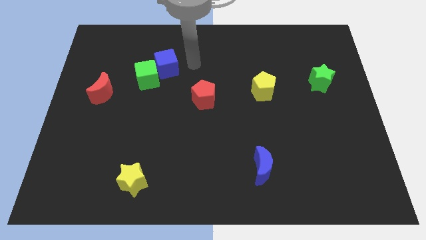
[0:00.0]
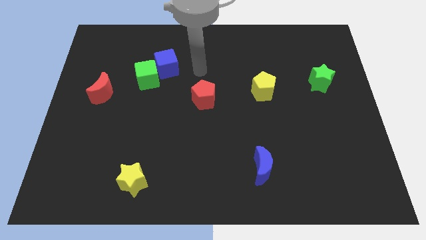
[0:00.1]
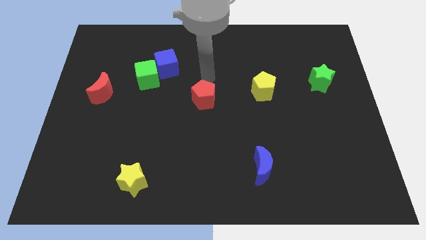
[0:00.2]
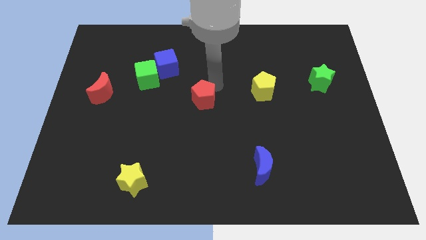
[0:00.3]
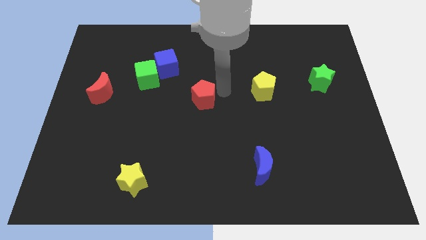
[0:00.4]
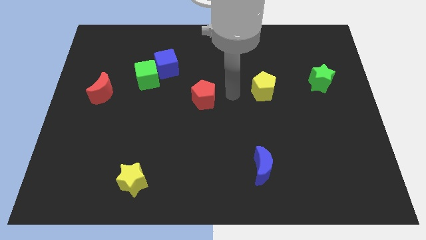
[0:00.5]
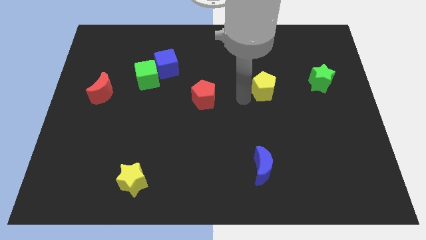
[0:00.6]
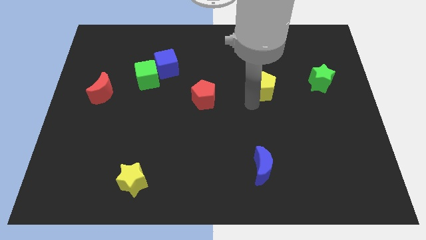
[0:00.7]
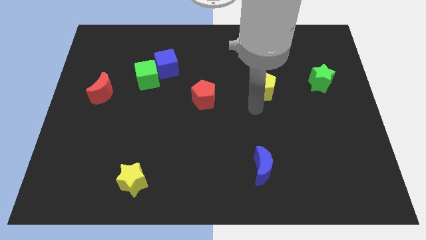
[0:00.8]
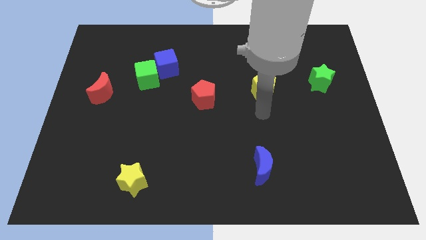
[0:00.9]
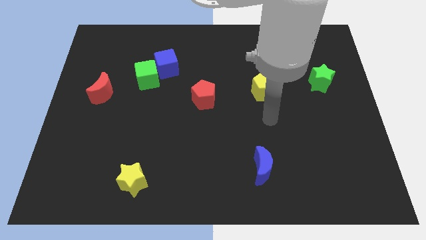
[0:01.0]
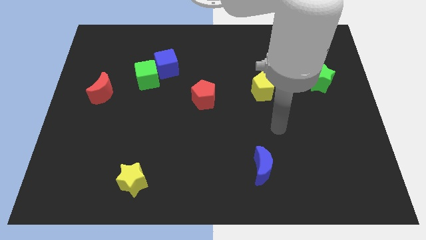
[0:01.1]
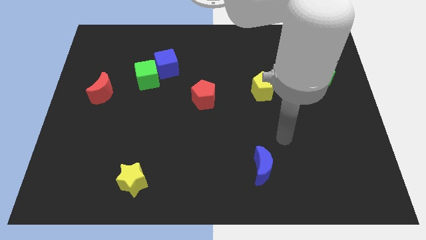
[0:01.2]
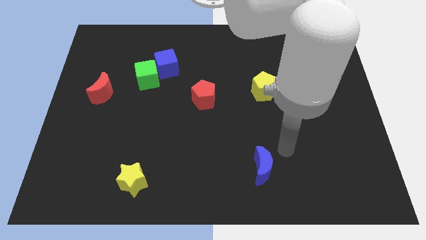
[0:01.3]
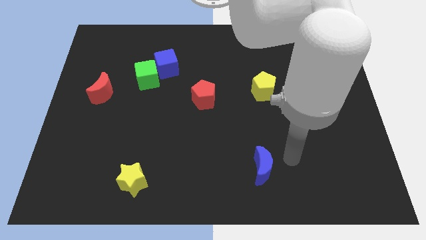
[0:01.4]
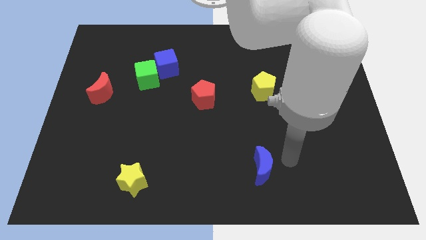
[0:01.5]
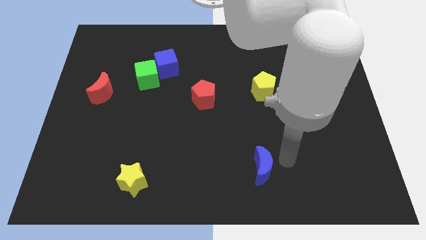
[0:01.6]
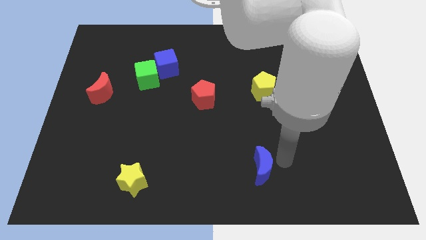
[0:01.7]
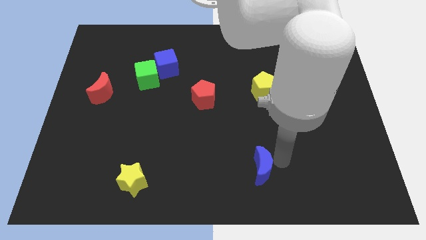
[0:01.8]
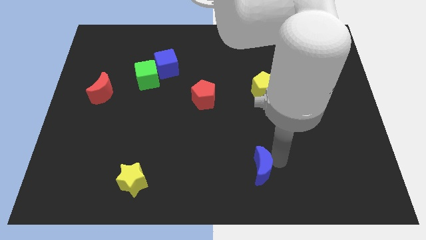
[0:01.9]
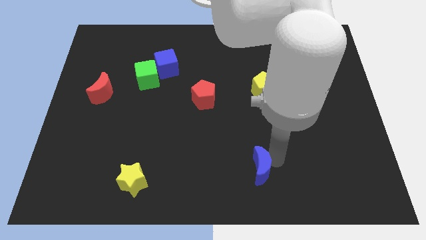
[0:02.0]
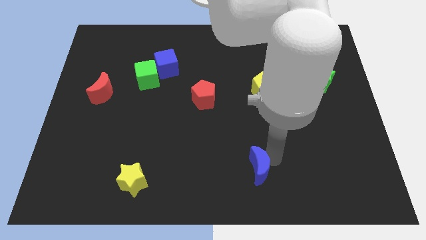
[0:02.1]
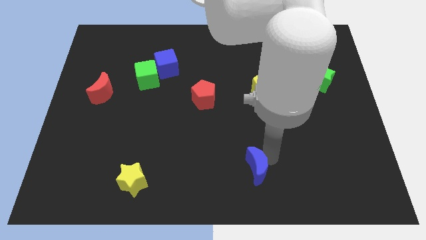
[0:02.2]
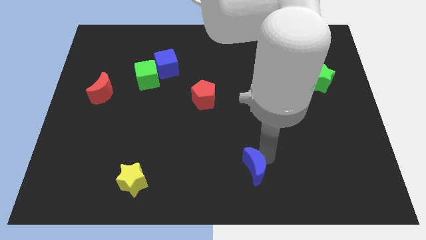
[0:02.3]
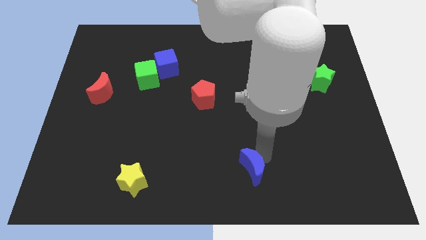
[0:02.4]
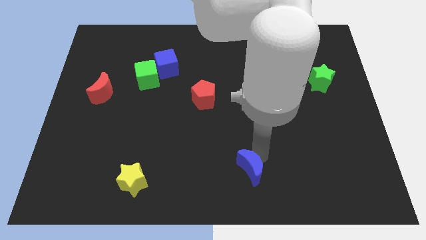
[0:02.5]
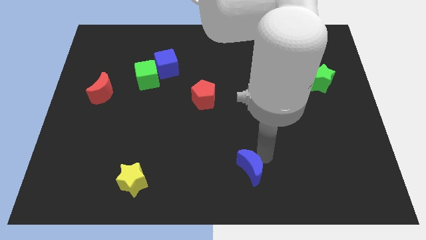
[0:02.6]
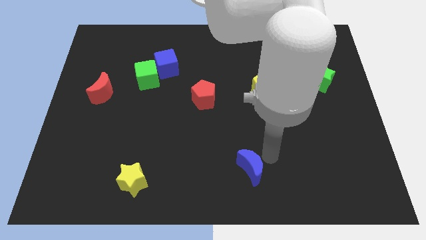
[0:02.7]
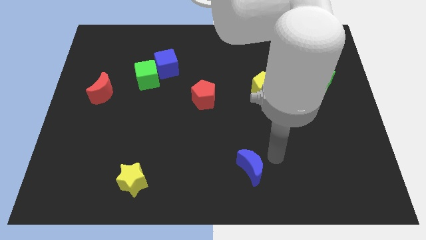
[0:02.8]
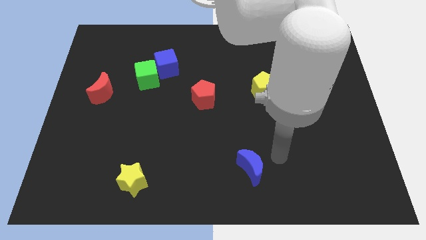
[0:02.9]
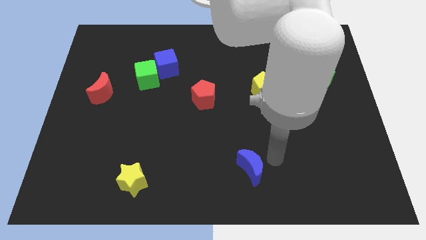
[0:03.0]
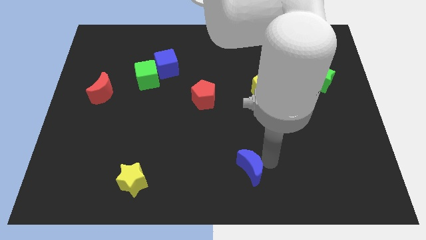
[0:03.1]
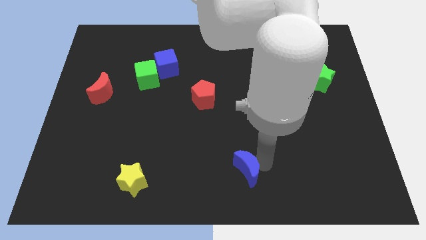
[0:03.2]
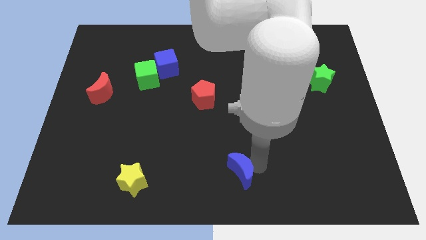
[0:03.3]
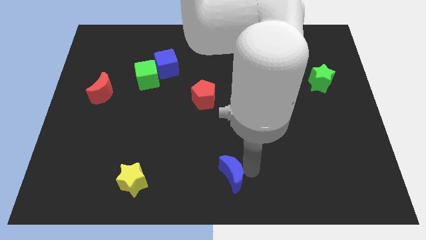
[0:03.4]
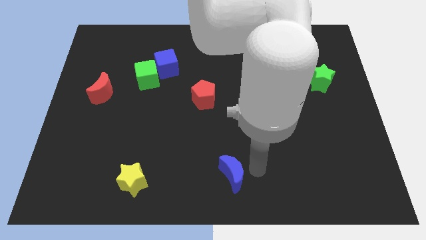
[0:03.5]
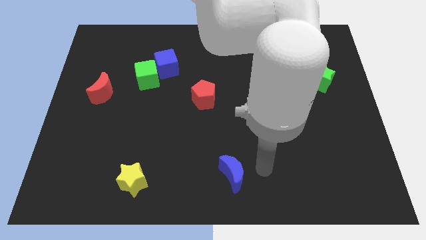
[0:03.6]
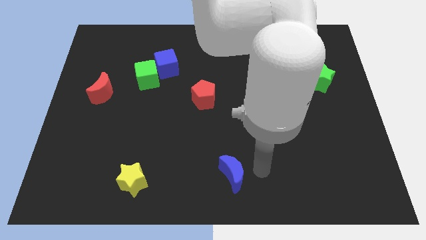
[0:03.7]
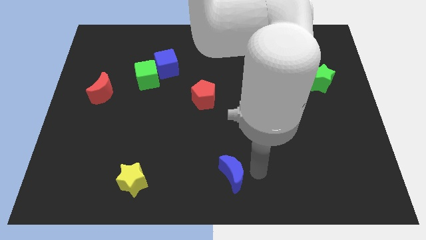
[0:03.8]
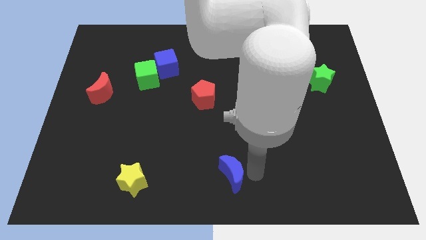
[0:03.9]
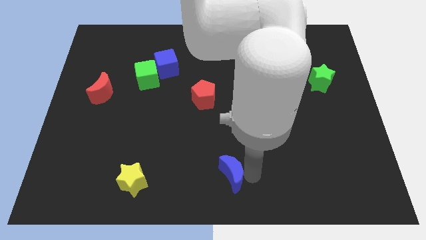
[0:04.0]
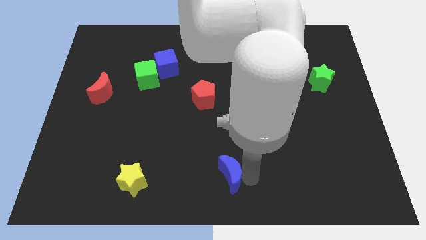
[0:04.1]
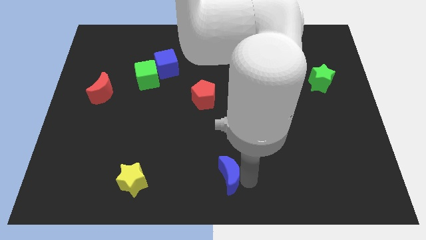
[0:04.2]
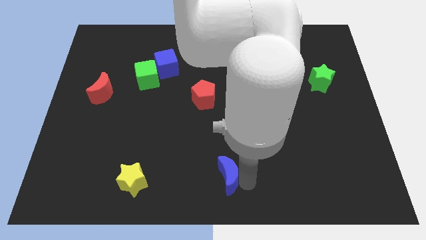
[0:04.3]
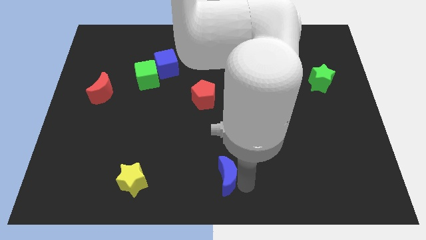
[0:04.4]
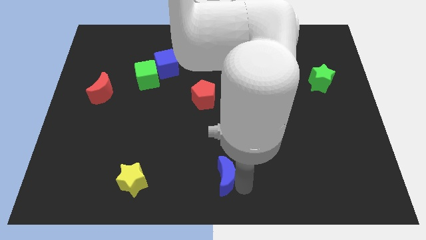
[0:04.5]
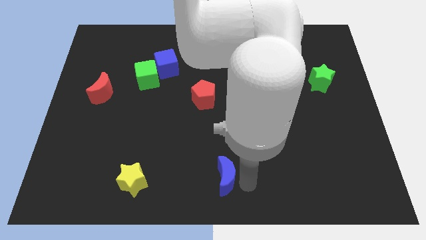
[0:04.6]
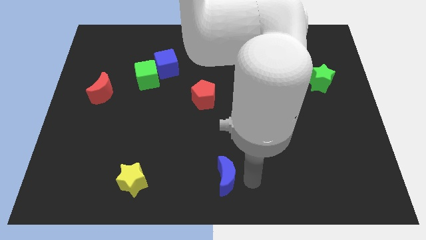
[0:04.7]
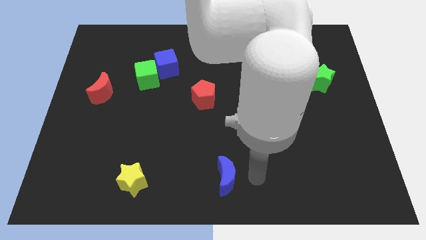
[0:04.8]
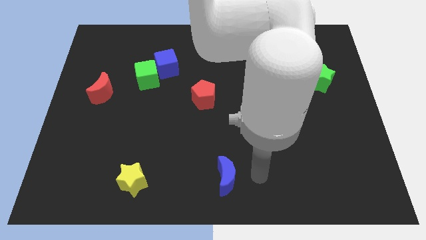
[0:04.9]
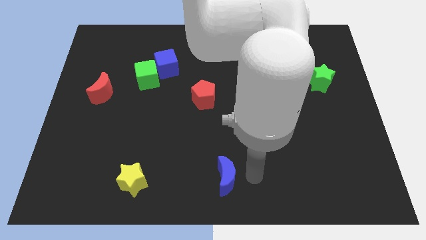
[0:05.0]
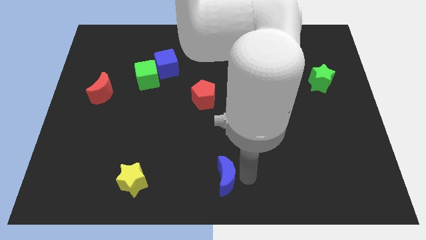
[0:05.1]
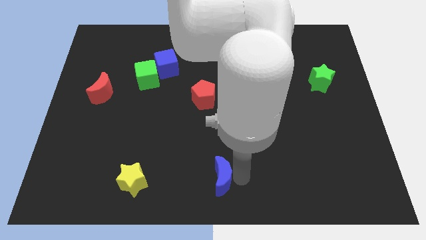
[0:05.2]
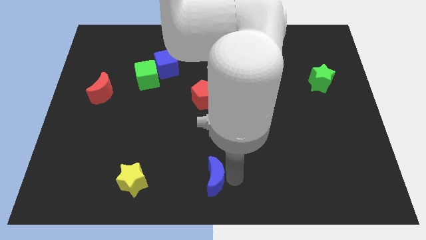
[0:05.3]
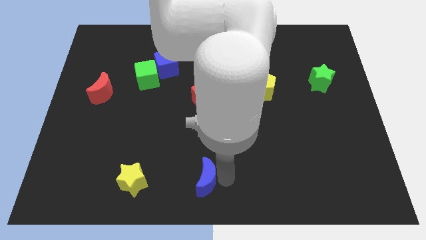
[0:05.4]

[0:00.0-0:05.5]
slide the blue moon to the right side of the yellow star

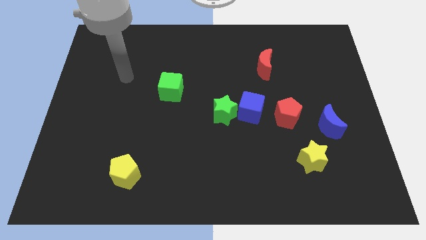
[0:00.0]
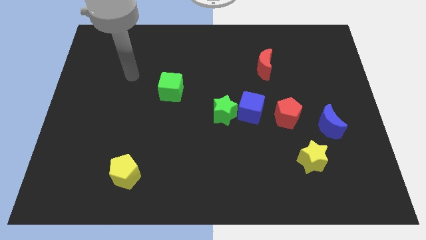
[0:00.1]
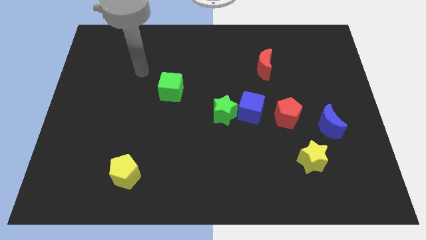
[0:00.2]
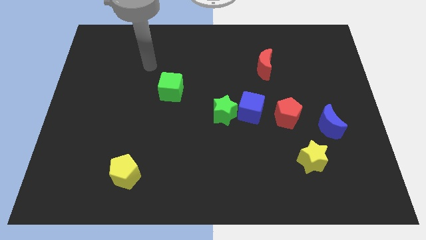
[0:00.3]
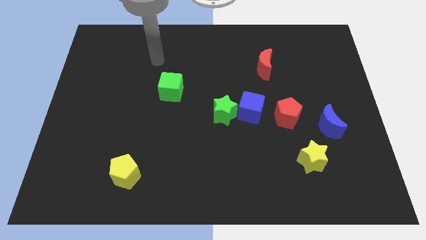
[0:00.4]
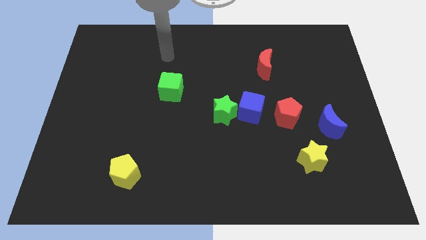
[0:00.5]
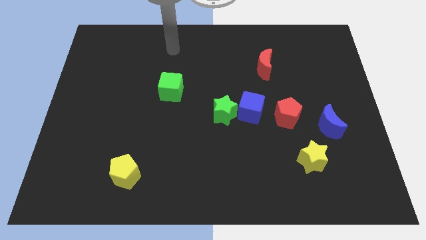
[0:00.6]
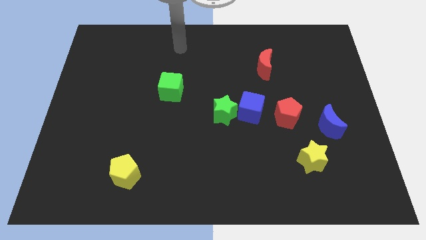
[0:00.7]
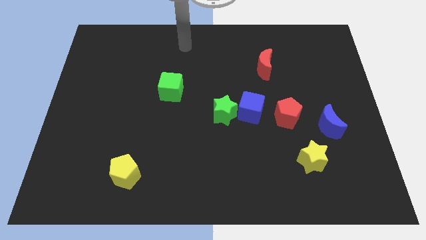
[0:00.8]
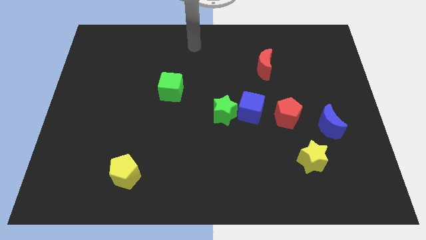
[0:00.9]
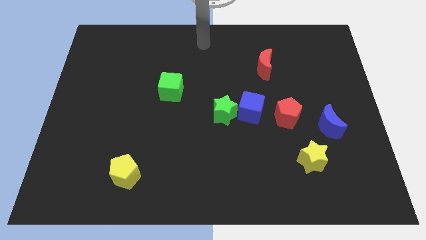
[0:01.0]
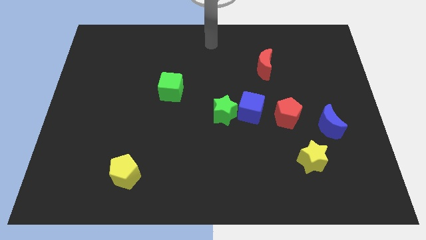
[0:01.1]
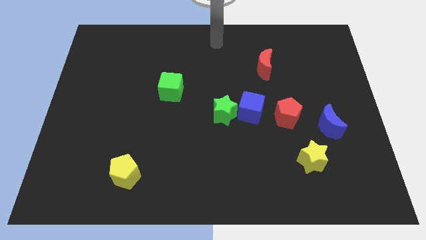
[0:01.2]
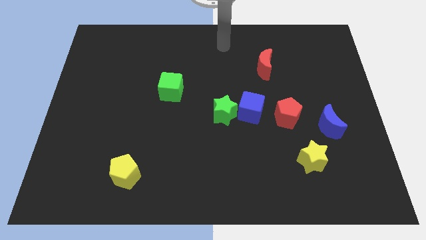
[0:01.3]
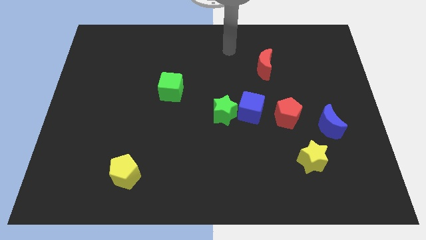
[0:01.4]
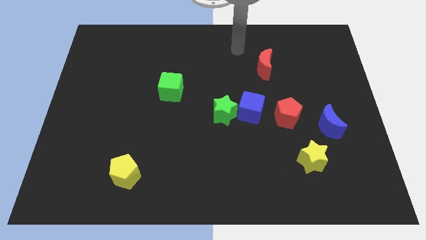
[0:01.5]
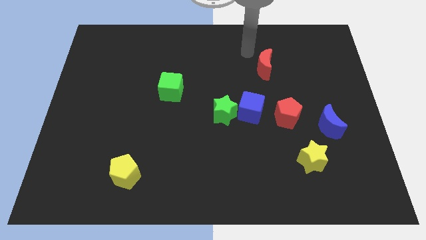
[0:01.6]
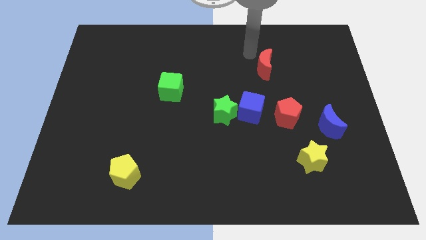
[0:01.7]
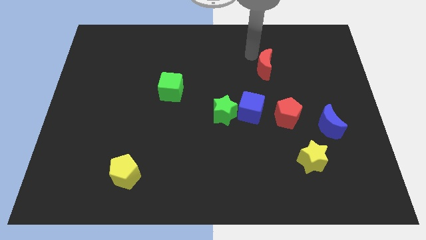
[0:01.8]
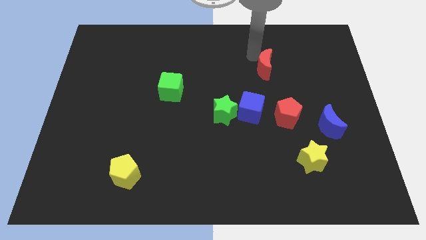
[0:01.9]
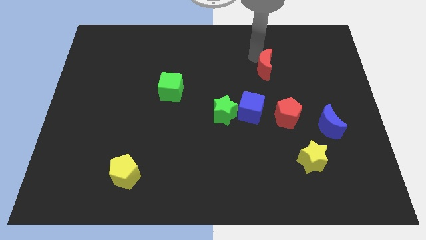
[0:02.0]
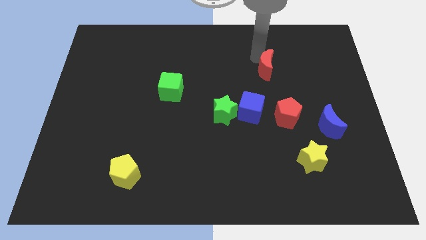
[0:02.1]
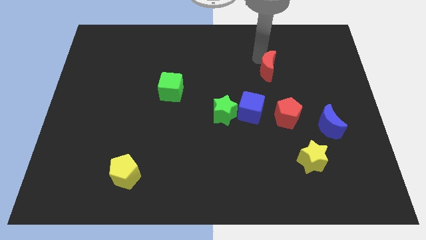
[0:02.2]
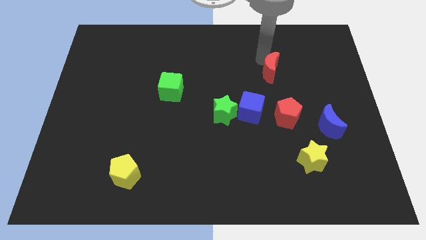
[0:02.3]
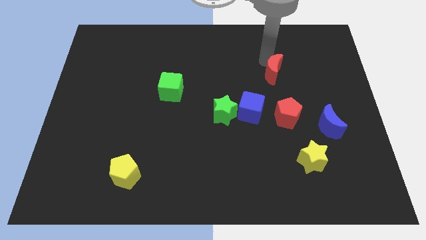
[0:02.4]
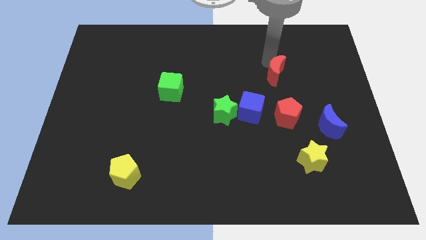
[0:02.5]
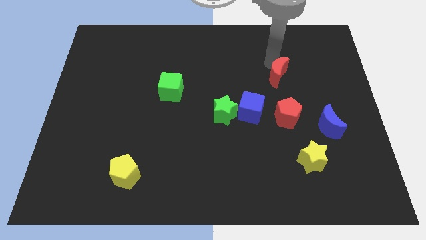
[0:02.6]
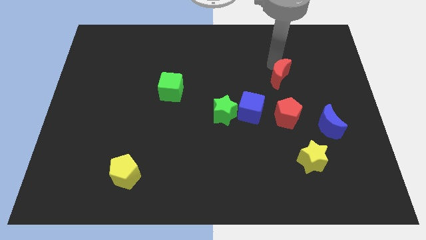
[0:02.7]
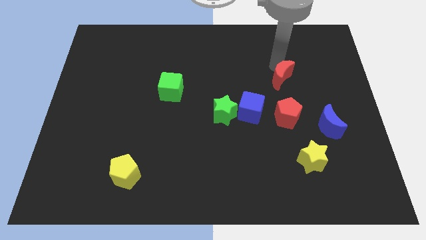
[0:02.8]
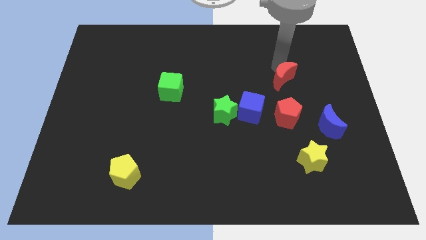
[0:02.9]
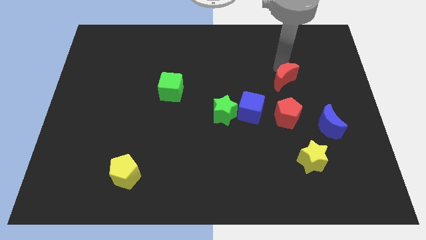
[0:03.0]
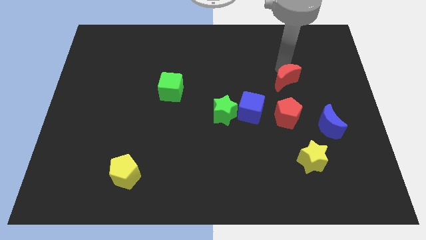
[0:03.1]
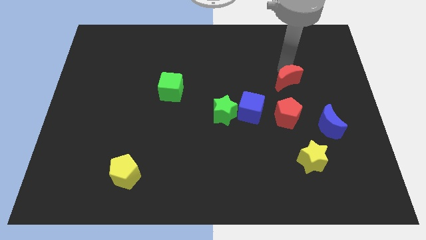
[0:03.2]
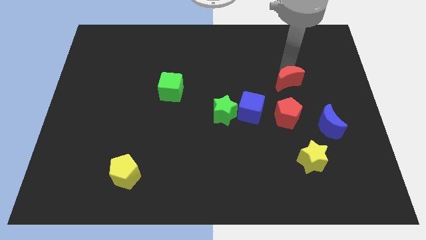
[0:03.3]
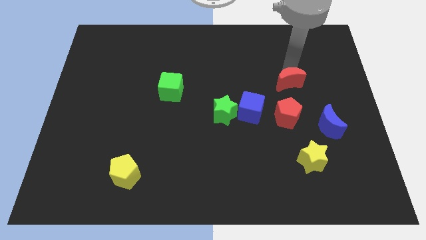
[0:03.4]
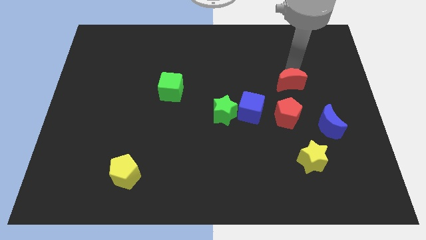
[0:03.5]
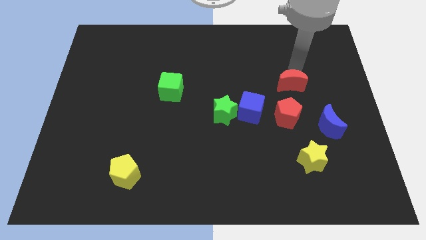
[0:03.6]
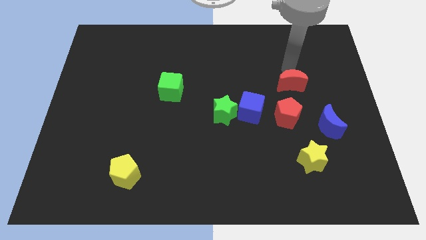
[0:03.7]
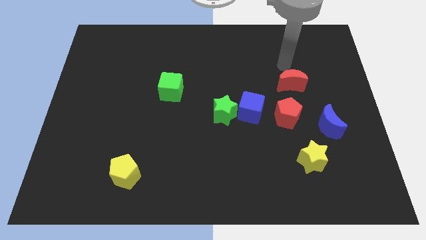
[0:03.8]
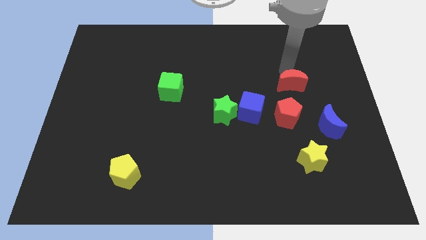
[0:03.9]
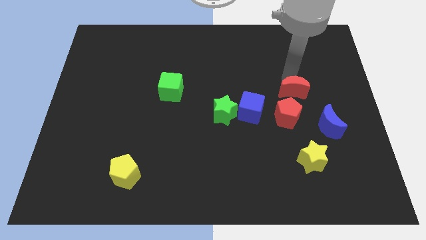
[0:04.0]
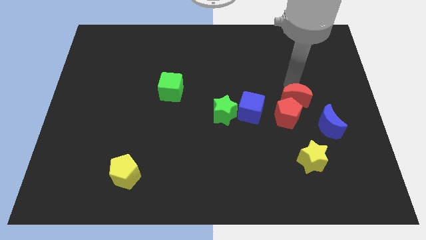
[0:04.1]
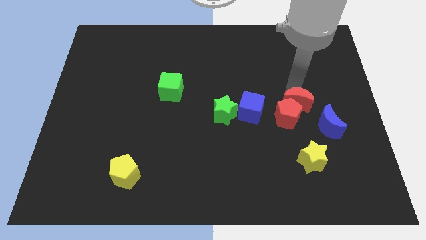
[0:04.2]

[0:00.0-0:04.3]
put the red moon to the top side of the yellow star
